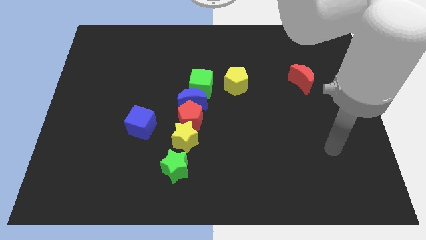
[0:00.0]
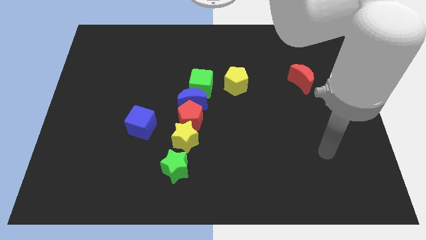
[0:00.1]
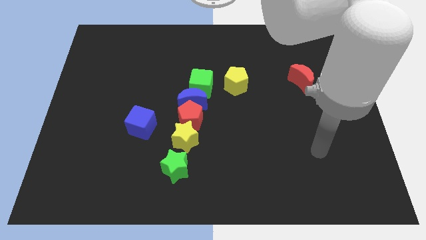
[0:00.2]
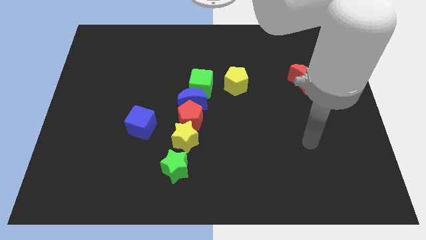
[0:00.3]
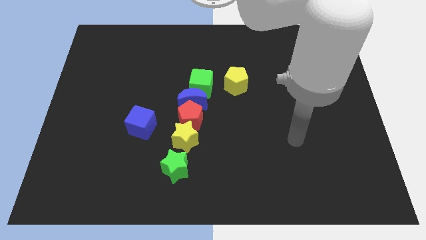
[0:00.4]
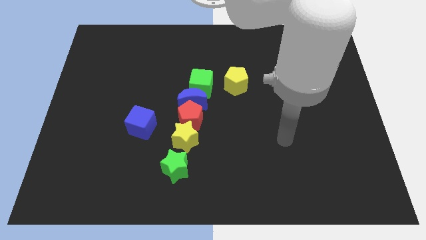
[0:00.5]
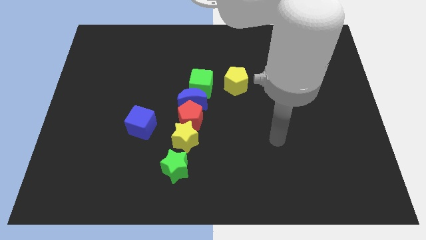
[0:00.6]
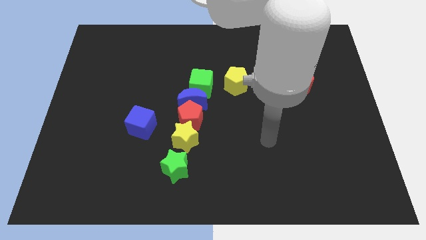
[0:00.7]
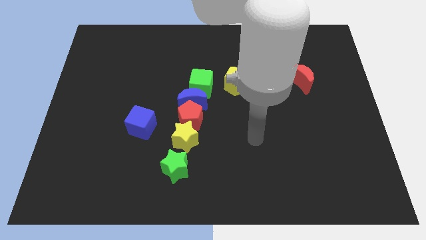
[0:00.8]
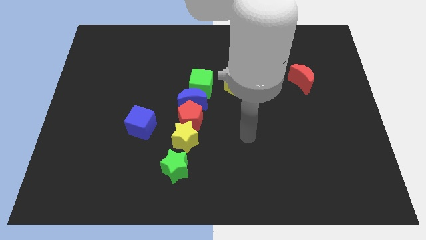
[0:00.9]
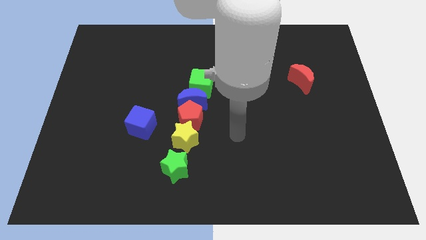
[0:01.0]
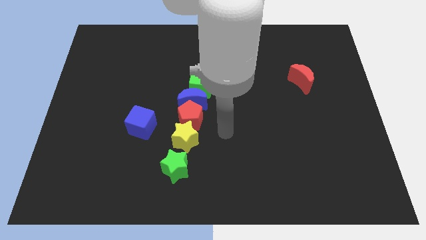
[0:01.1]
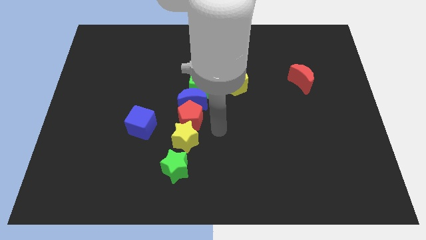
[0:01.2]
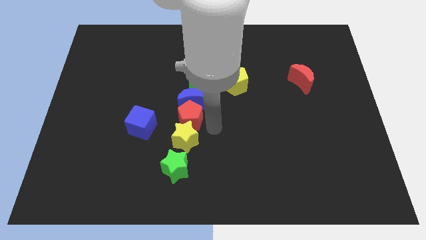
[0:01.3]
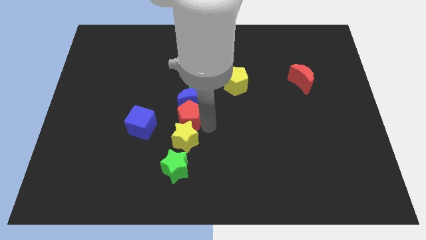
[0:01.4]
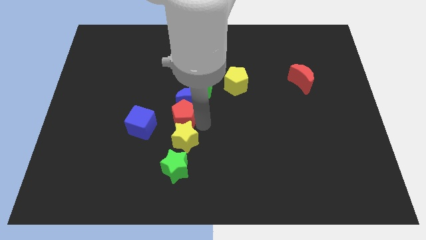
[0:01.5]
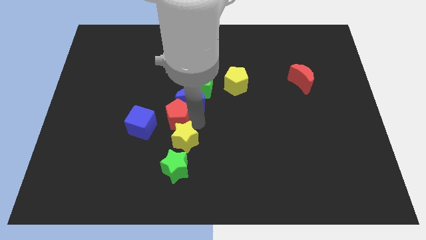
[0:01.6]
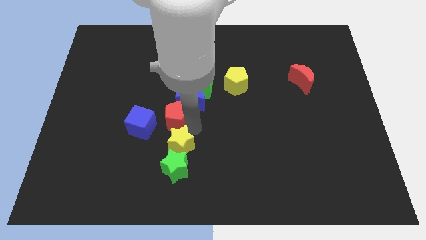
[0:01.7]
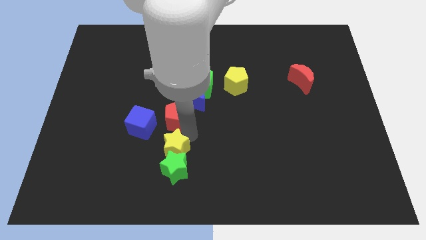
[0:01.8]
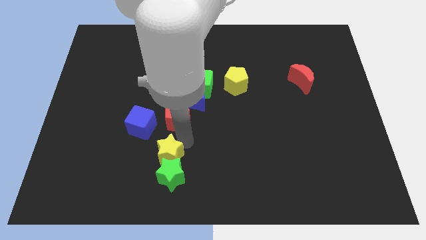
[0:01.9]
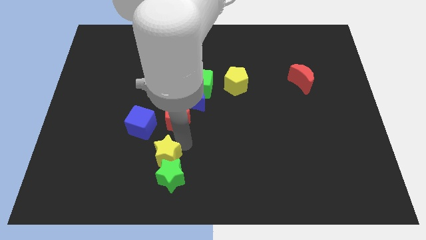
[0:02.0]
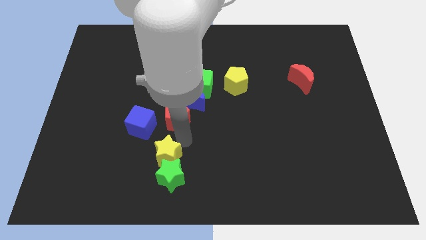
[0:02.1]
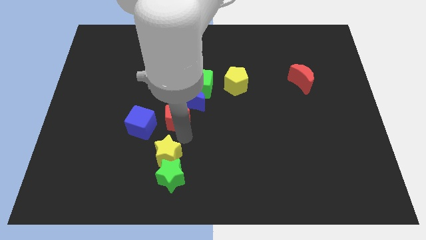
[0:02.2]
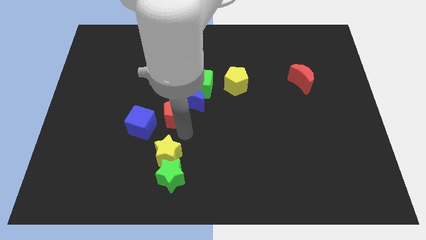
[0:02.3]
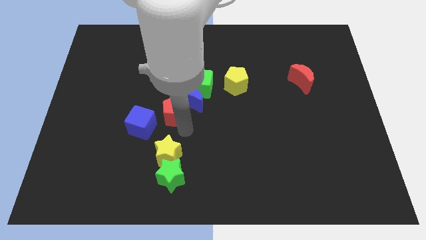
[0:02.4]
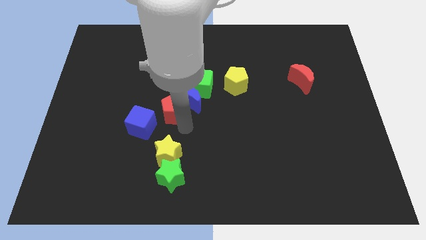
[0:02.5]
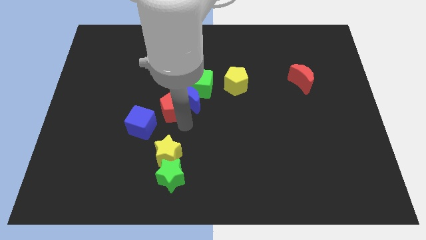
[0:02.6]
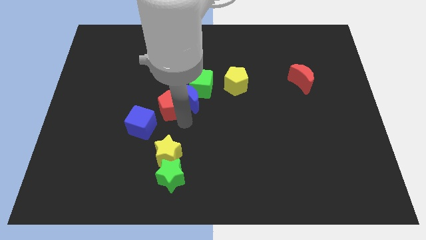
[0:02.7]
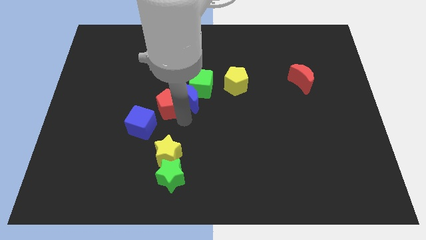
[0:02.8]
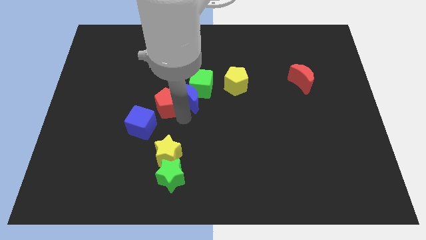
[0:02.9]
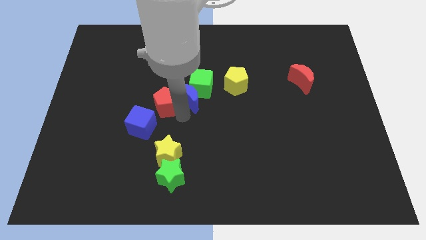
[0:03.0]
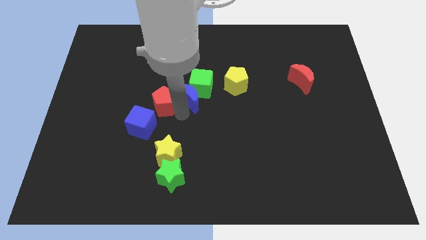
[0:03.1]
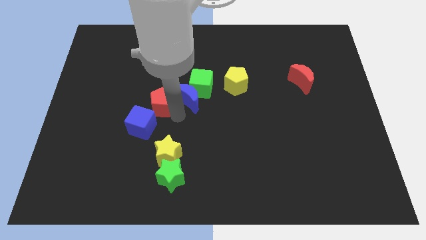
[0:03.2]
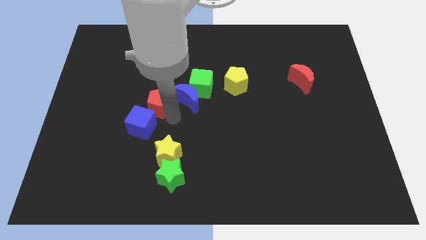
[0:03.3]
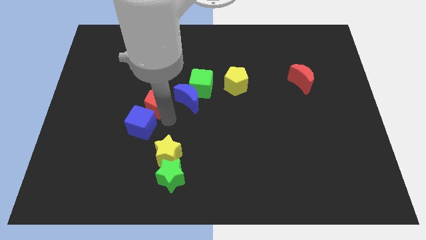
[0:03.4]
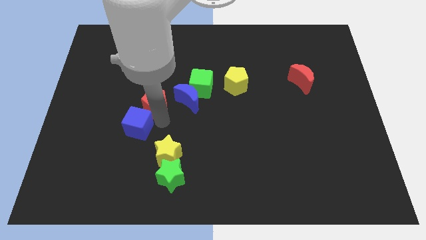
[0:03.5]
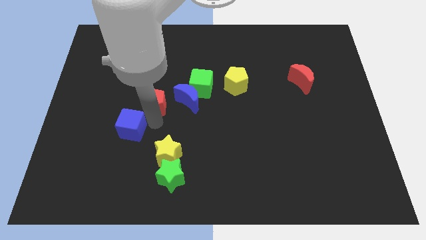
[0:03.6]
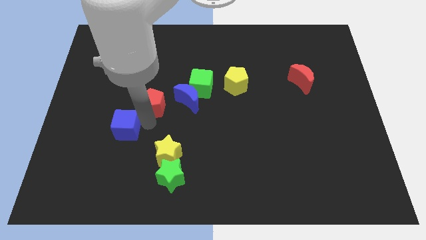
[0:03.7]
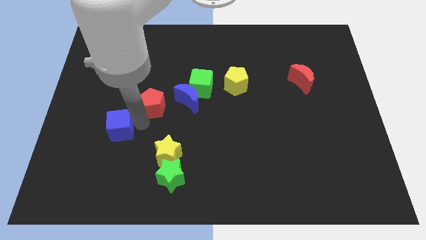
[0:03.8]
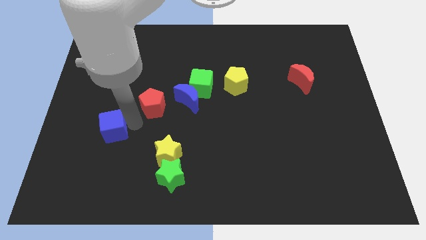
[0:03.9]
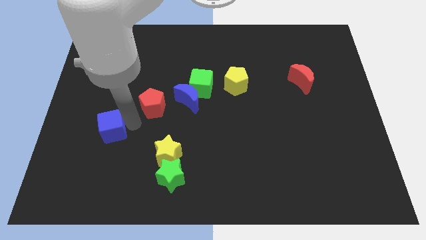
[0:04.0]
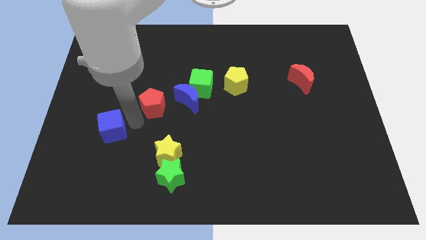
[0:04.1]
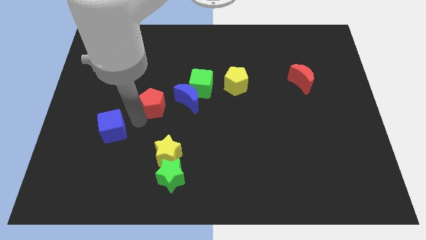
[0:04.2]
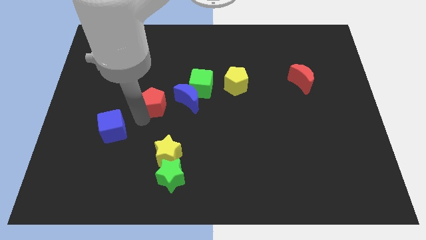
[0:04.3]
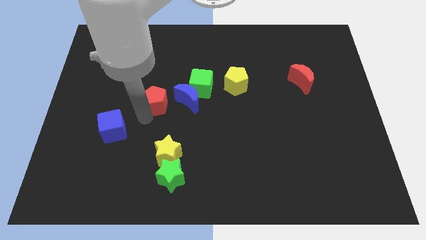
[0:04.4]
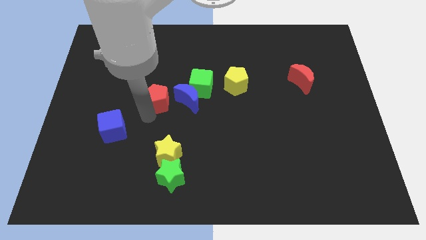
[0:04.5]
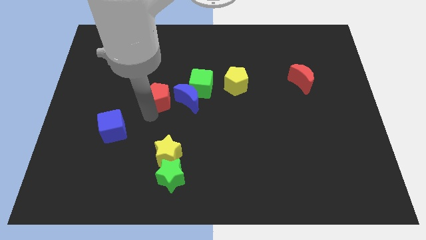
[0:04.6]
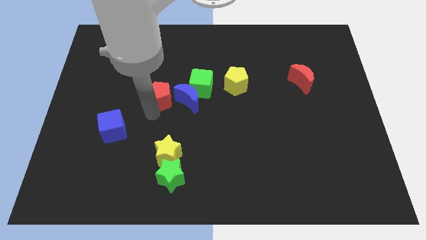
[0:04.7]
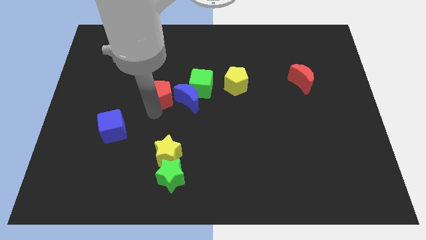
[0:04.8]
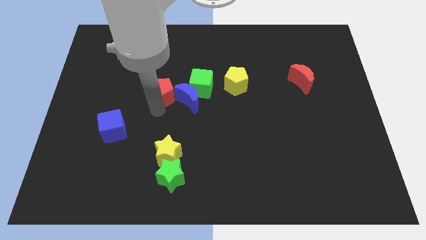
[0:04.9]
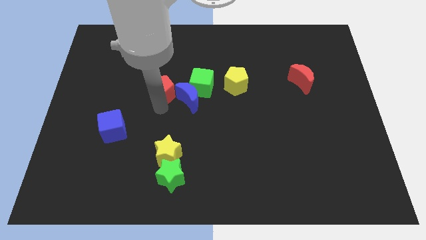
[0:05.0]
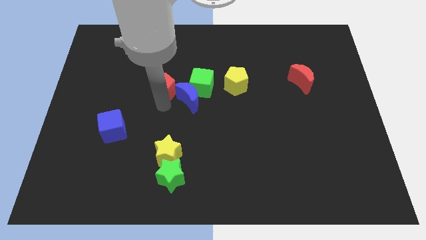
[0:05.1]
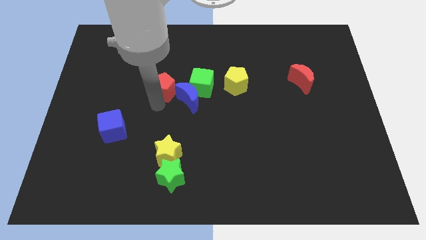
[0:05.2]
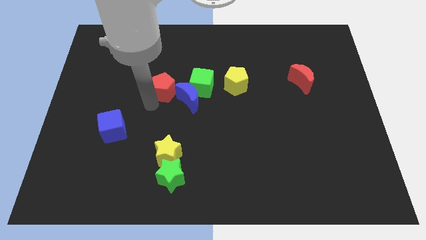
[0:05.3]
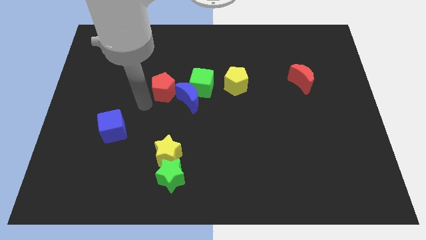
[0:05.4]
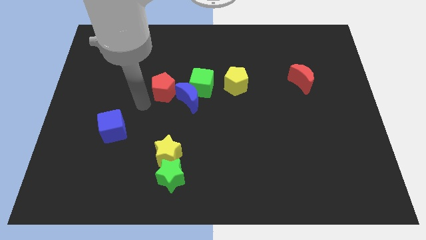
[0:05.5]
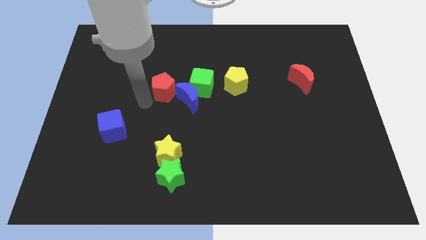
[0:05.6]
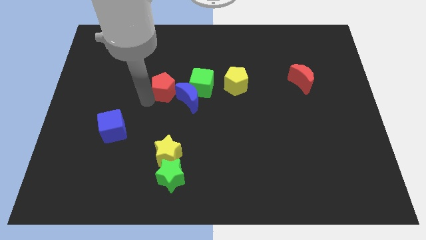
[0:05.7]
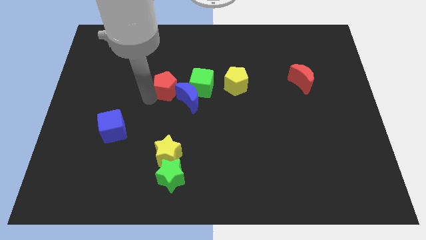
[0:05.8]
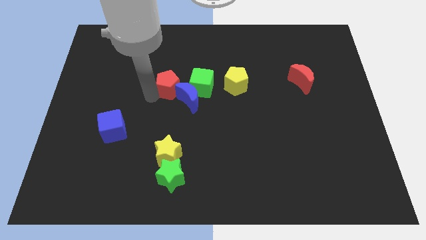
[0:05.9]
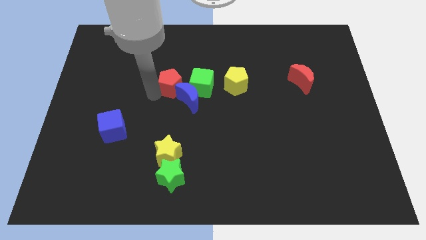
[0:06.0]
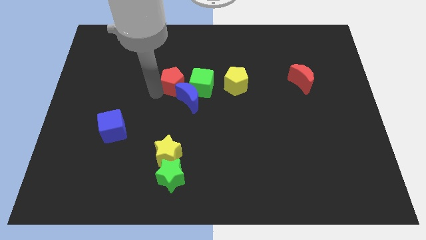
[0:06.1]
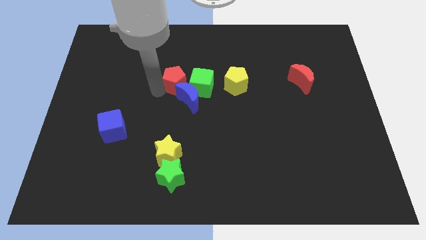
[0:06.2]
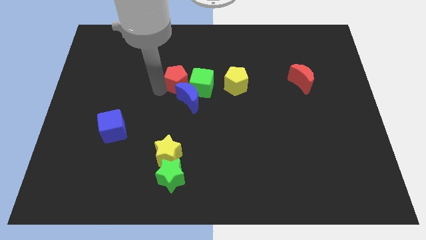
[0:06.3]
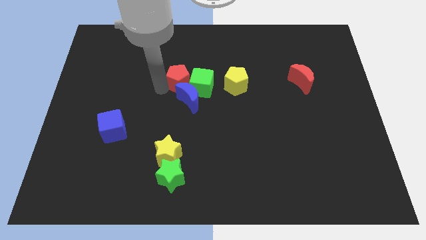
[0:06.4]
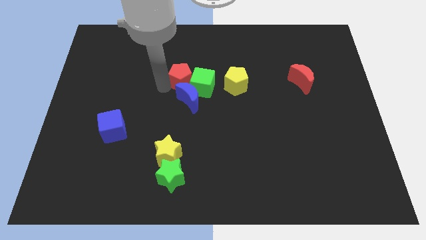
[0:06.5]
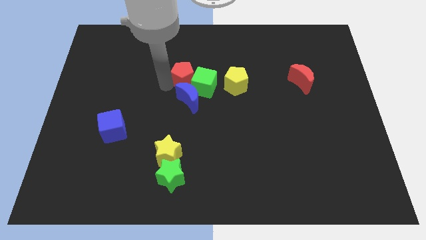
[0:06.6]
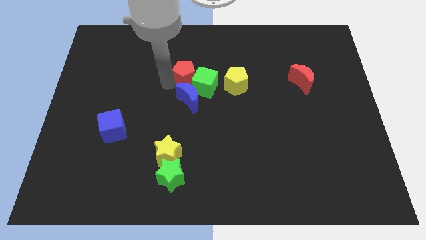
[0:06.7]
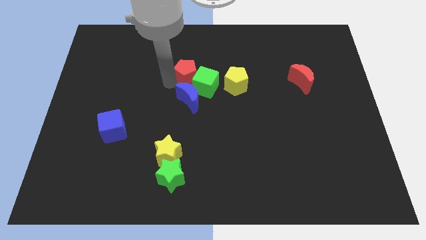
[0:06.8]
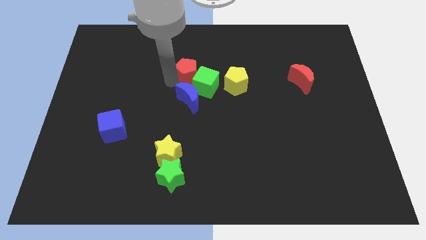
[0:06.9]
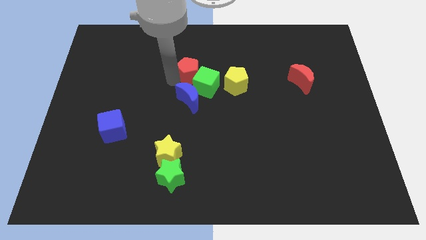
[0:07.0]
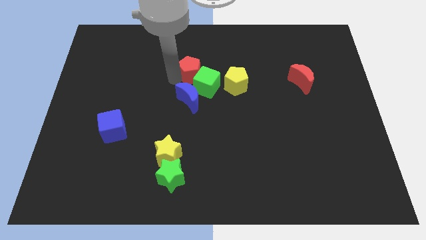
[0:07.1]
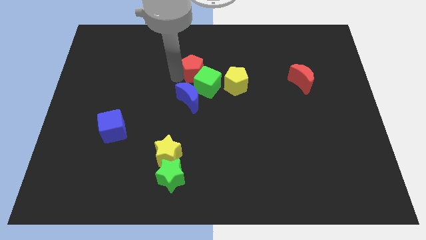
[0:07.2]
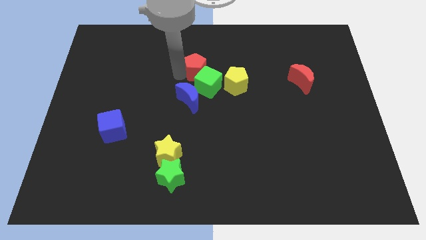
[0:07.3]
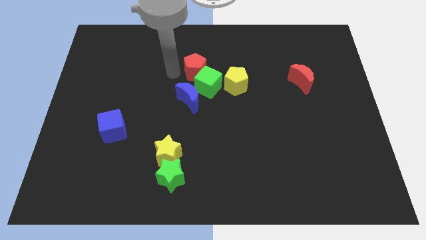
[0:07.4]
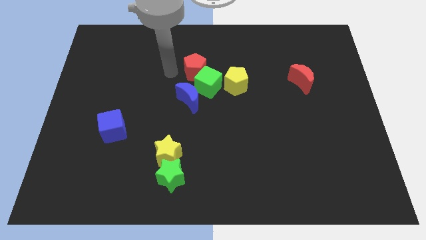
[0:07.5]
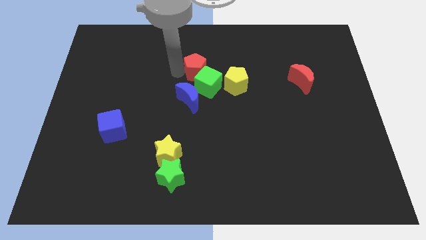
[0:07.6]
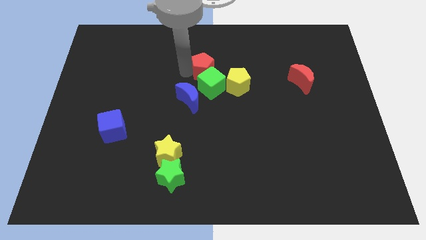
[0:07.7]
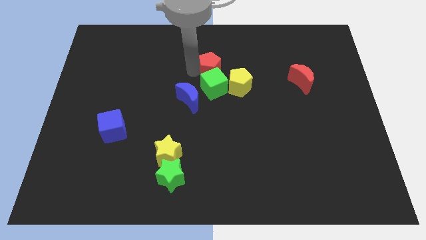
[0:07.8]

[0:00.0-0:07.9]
move the red pentagon diagonally up and to the right of the green cube
